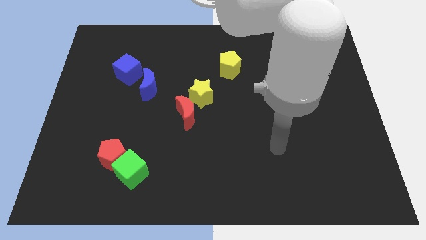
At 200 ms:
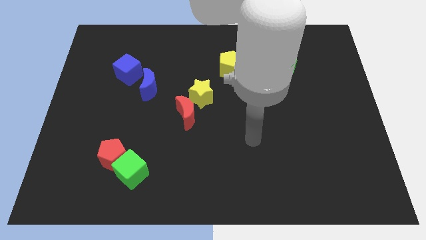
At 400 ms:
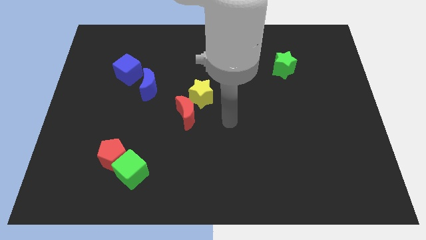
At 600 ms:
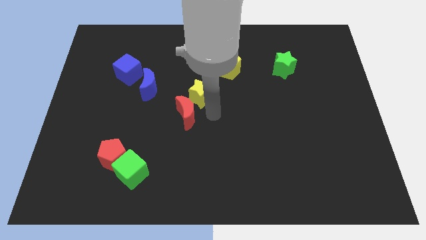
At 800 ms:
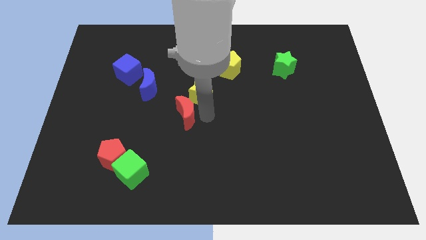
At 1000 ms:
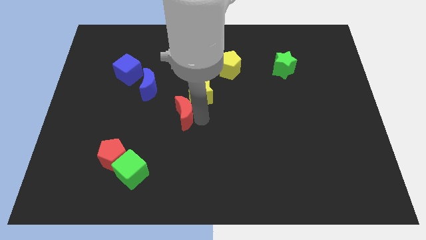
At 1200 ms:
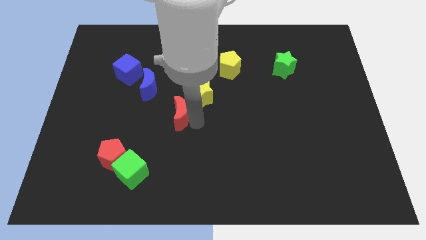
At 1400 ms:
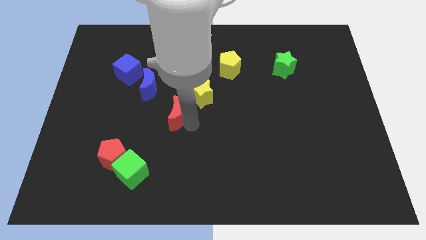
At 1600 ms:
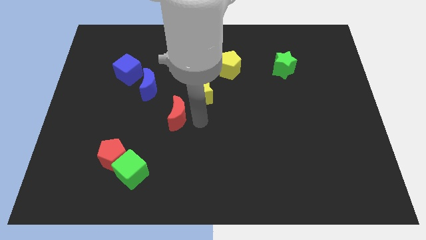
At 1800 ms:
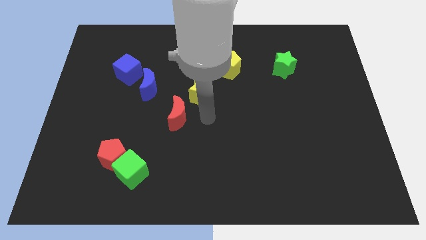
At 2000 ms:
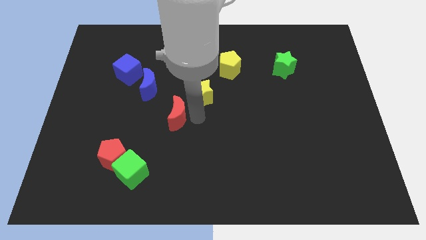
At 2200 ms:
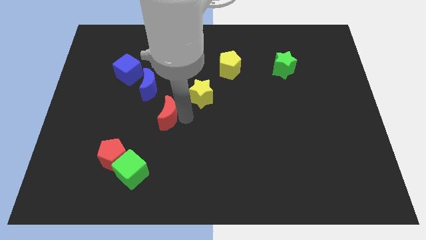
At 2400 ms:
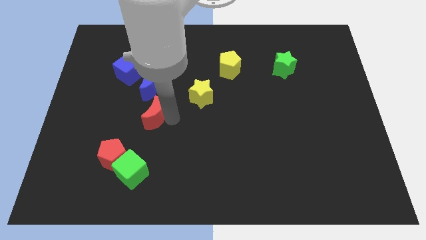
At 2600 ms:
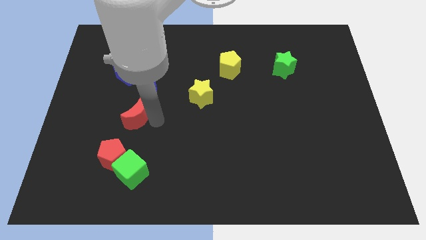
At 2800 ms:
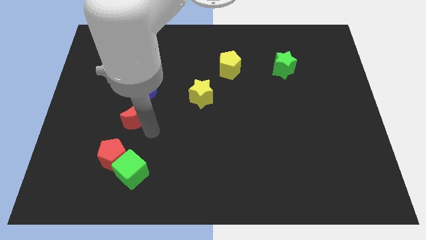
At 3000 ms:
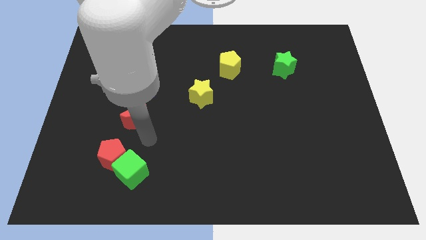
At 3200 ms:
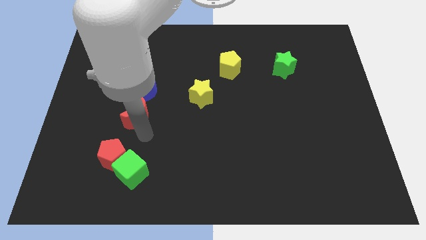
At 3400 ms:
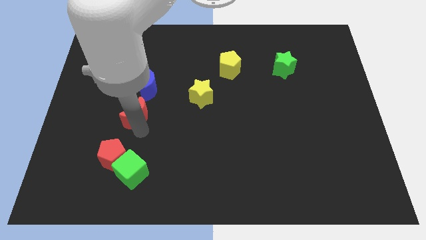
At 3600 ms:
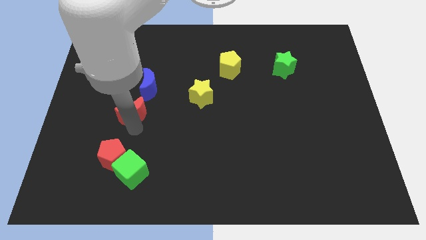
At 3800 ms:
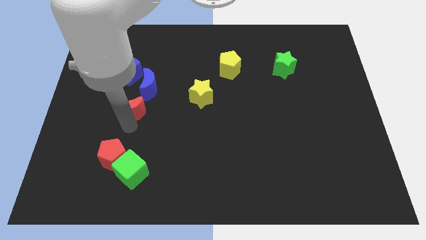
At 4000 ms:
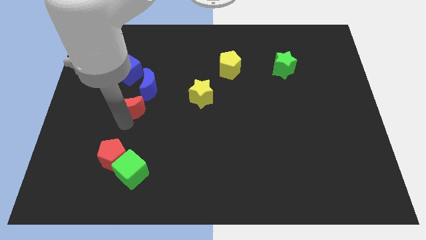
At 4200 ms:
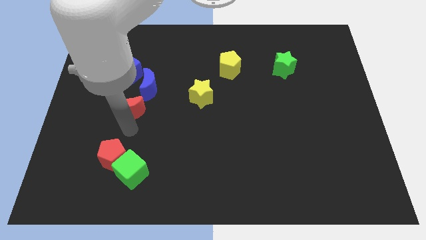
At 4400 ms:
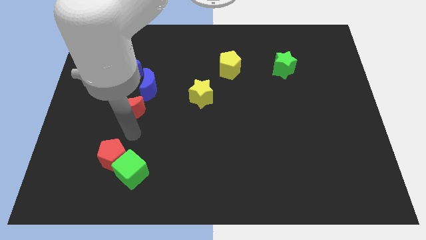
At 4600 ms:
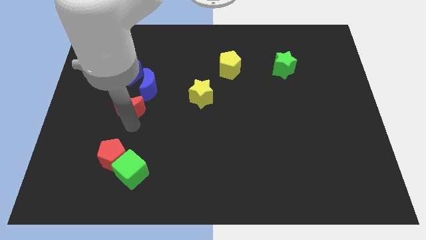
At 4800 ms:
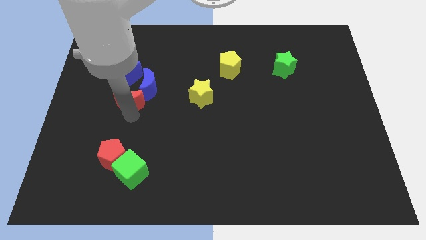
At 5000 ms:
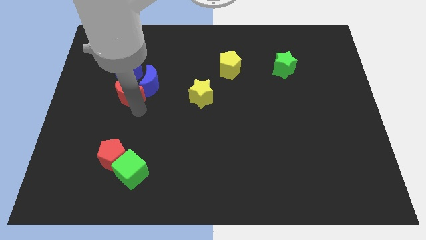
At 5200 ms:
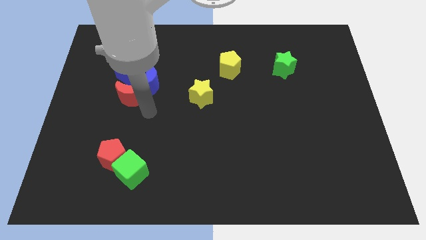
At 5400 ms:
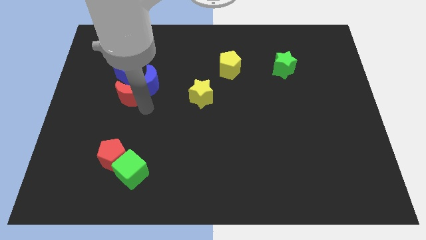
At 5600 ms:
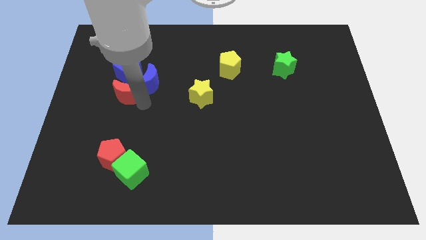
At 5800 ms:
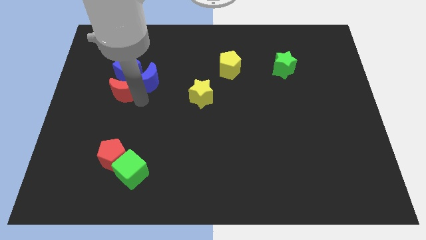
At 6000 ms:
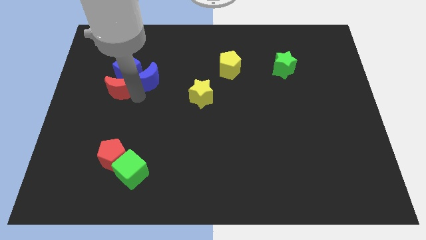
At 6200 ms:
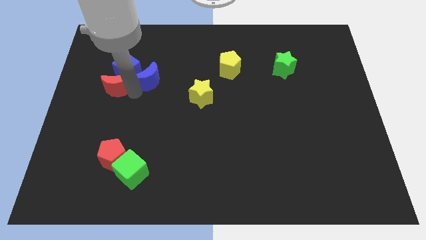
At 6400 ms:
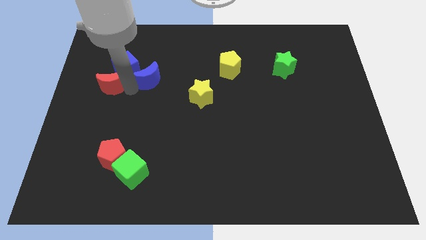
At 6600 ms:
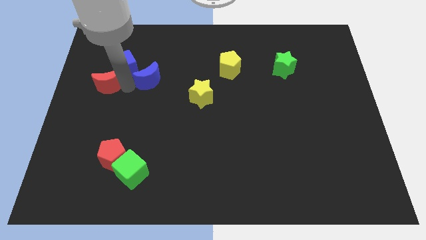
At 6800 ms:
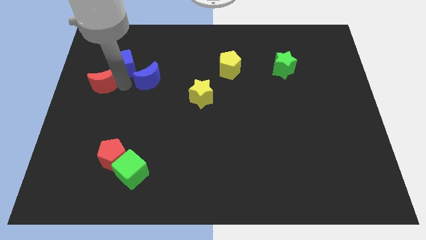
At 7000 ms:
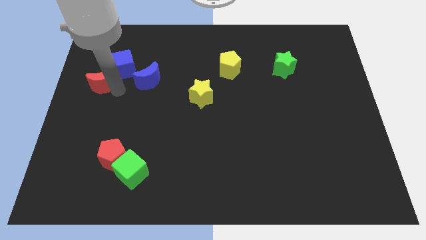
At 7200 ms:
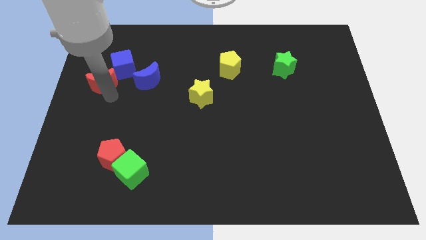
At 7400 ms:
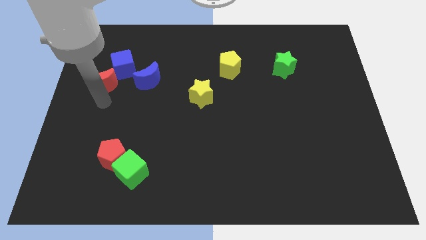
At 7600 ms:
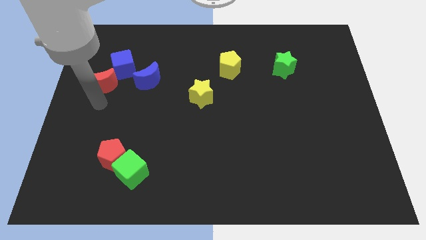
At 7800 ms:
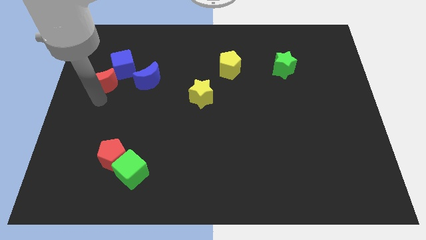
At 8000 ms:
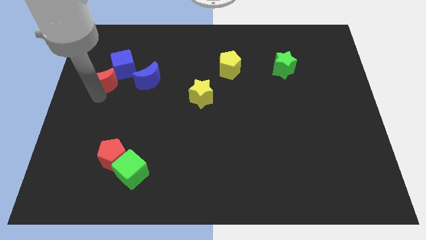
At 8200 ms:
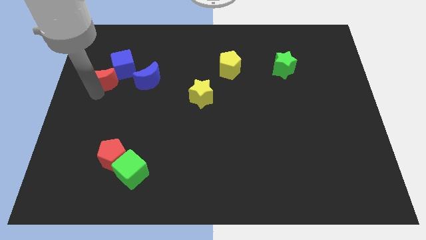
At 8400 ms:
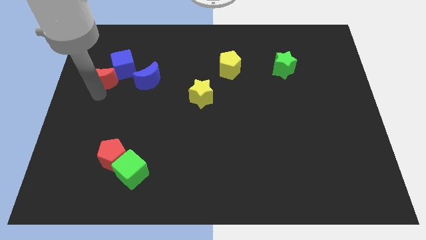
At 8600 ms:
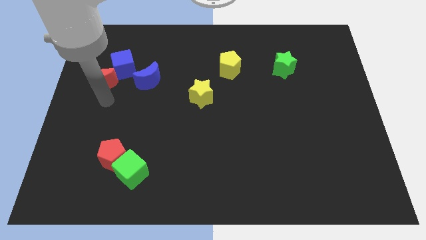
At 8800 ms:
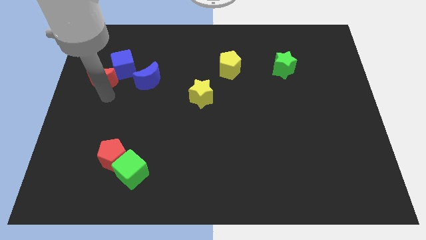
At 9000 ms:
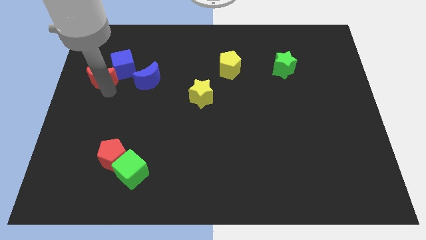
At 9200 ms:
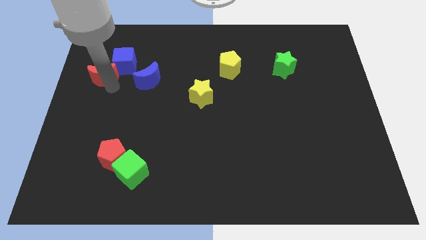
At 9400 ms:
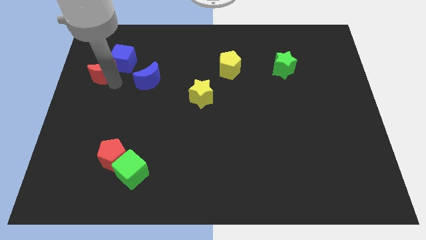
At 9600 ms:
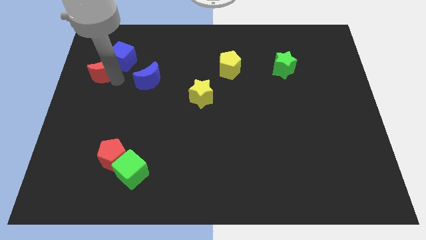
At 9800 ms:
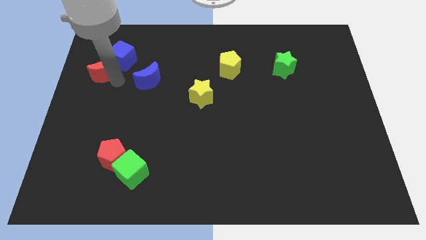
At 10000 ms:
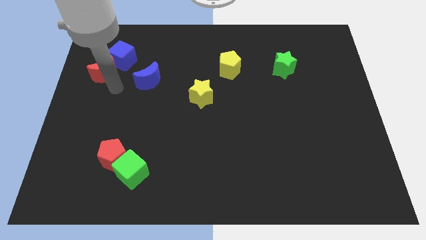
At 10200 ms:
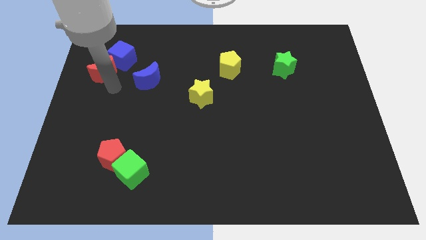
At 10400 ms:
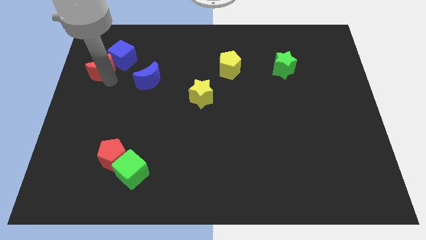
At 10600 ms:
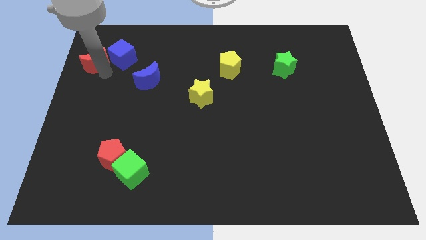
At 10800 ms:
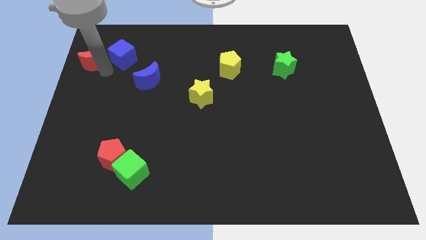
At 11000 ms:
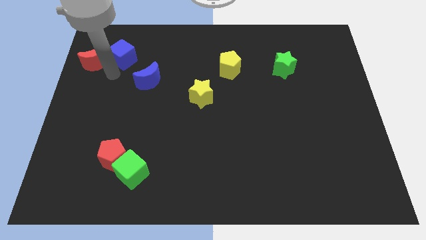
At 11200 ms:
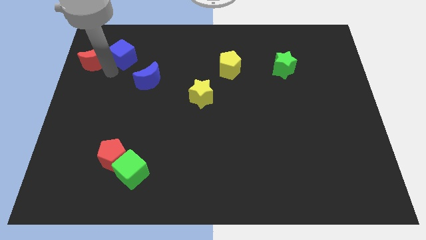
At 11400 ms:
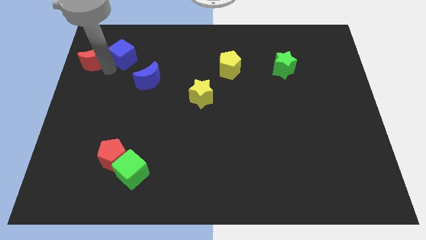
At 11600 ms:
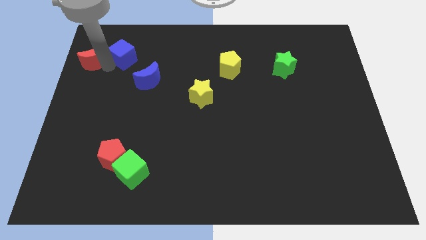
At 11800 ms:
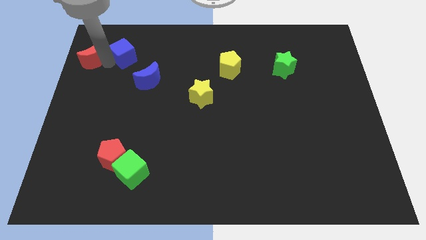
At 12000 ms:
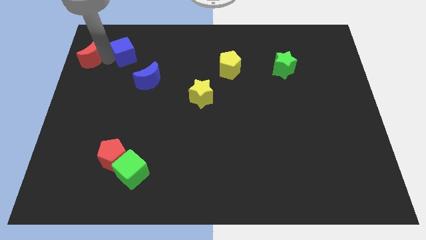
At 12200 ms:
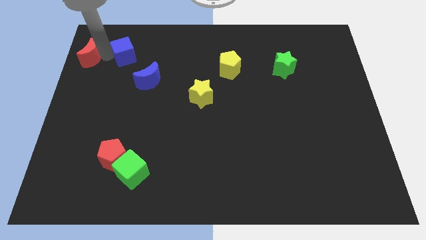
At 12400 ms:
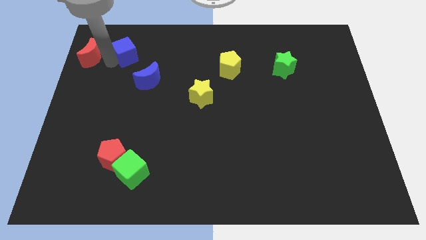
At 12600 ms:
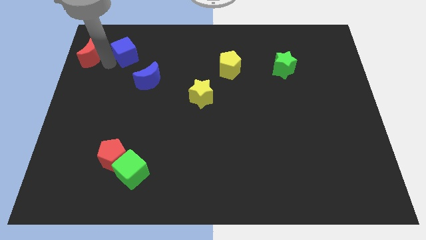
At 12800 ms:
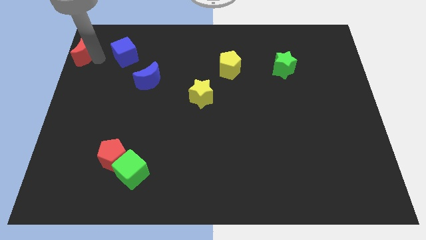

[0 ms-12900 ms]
put the red moon to the upper left corner

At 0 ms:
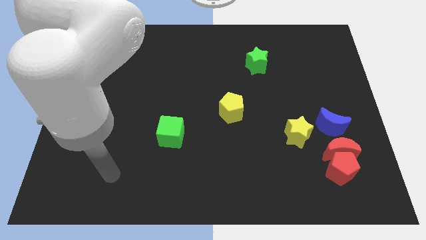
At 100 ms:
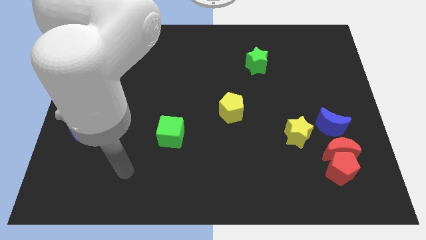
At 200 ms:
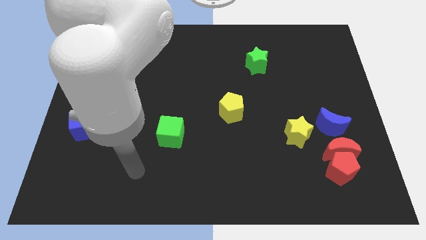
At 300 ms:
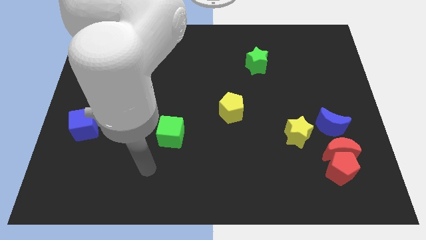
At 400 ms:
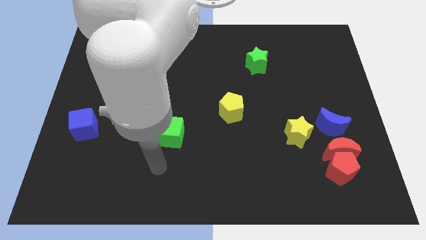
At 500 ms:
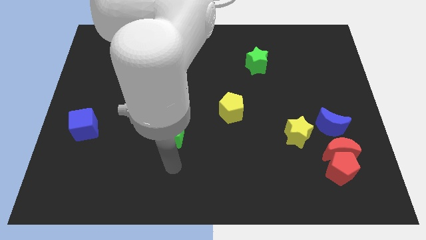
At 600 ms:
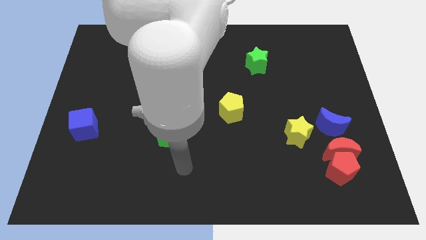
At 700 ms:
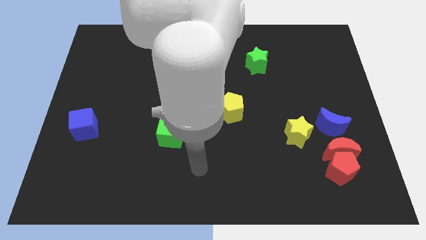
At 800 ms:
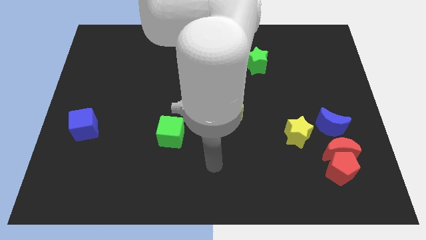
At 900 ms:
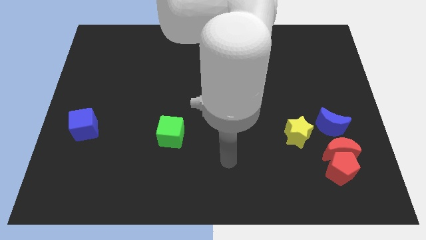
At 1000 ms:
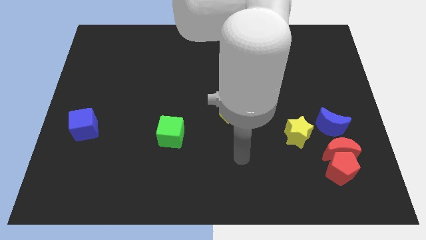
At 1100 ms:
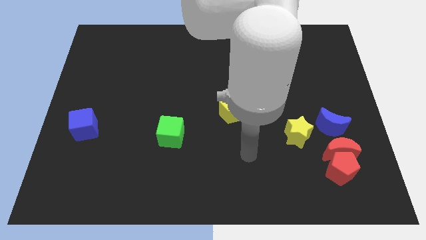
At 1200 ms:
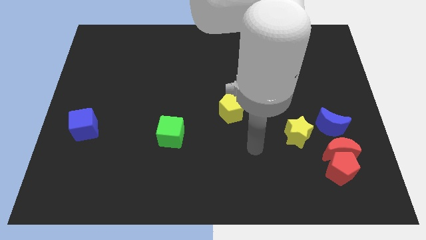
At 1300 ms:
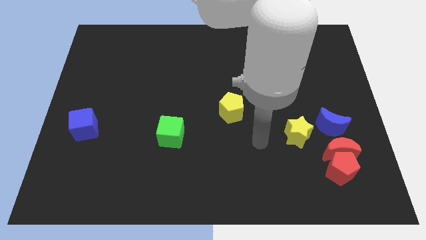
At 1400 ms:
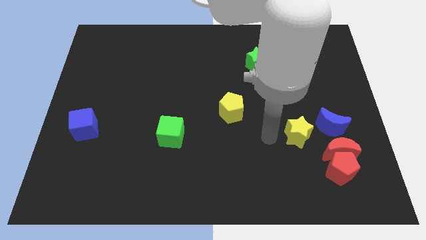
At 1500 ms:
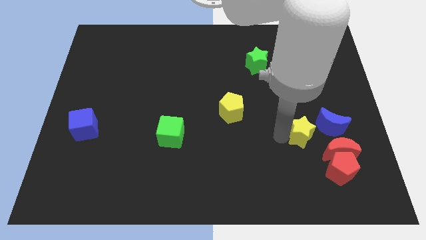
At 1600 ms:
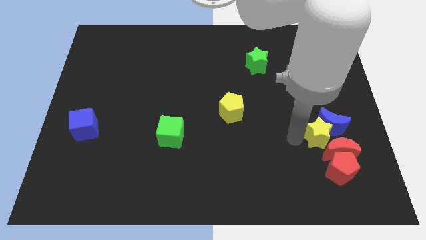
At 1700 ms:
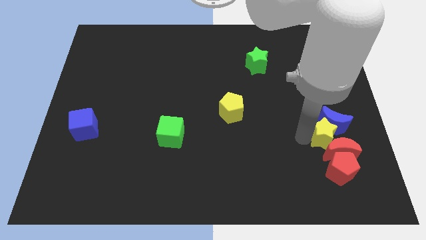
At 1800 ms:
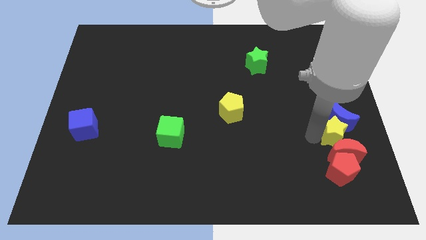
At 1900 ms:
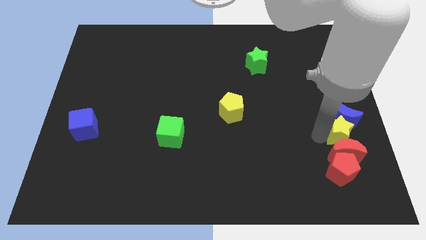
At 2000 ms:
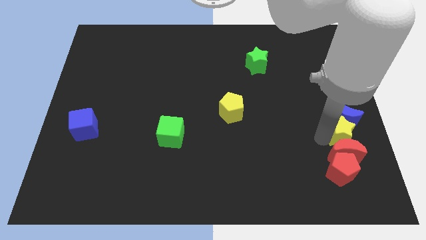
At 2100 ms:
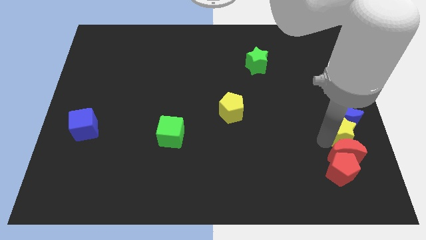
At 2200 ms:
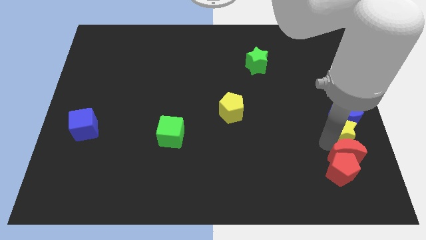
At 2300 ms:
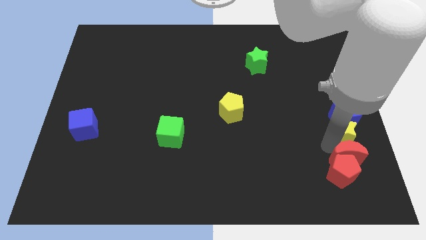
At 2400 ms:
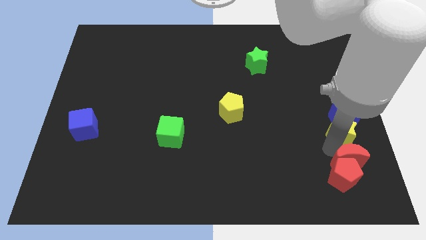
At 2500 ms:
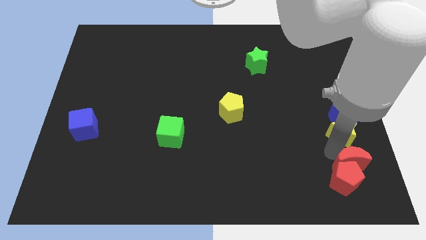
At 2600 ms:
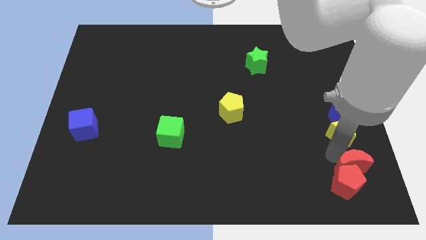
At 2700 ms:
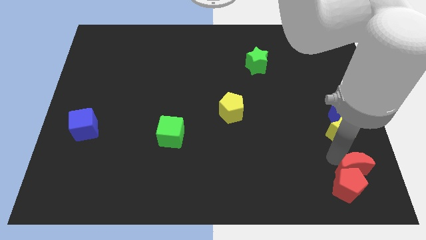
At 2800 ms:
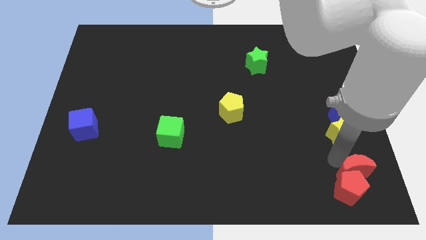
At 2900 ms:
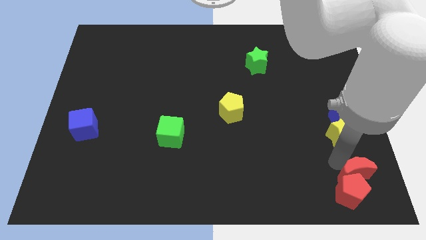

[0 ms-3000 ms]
push the red moon to the bottom right
